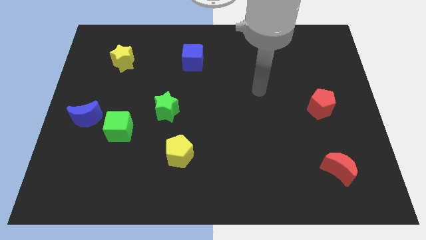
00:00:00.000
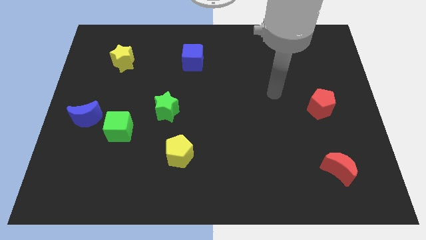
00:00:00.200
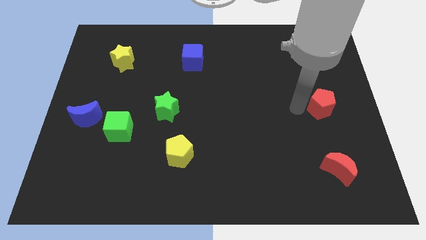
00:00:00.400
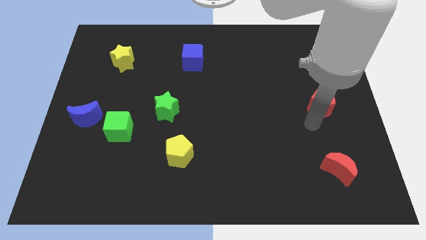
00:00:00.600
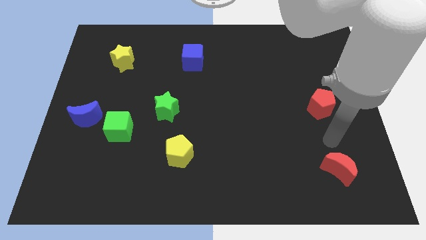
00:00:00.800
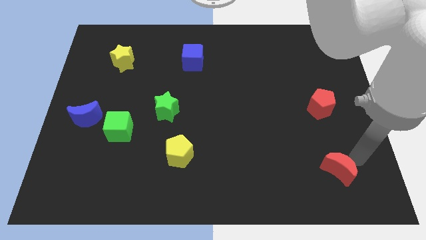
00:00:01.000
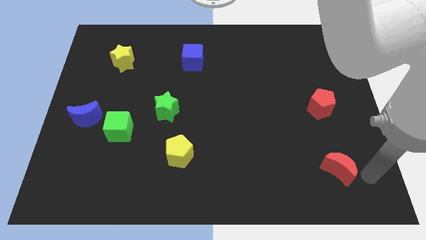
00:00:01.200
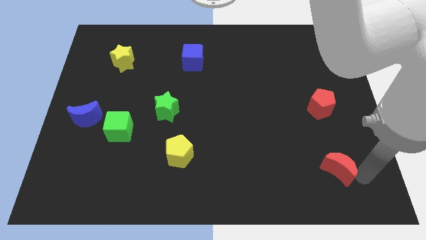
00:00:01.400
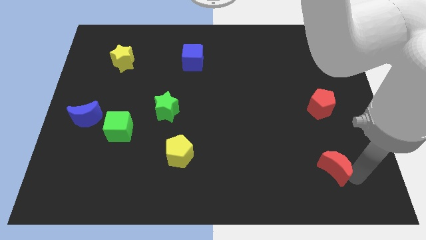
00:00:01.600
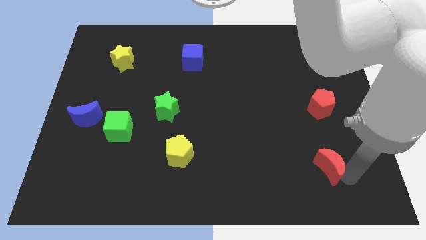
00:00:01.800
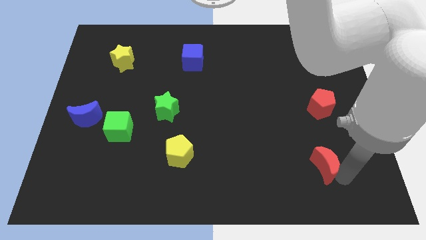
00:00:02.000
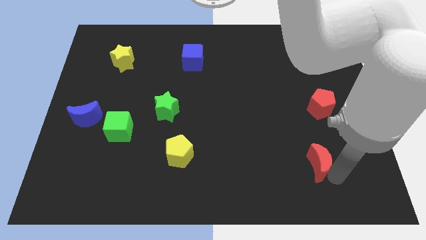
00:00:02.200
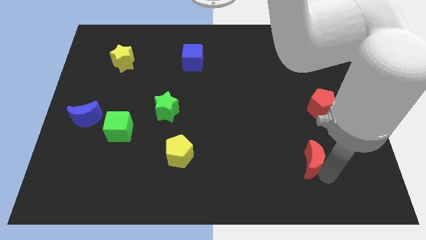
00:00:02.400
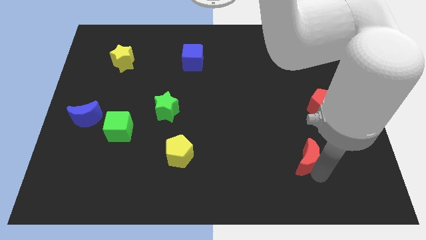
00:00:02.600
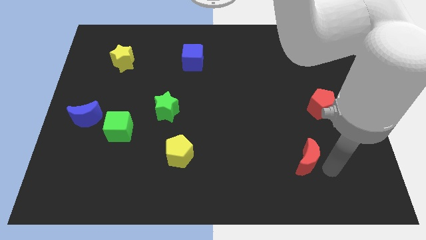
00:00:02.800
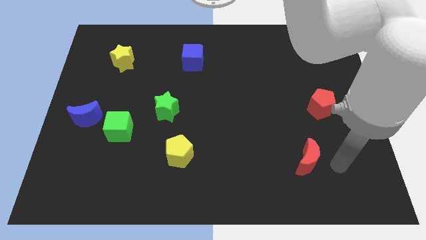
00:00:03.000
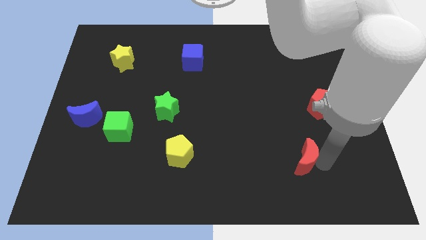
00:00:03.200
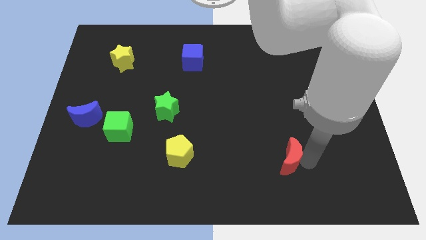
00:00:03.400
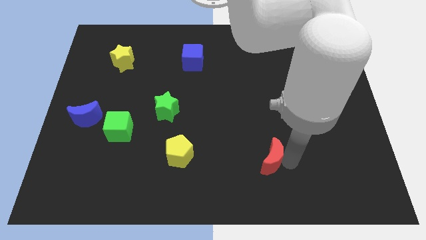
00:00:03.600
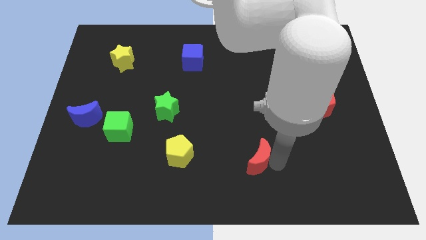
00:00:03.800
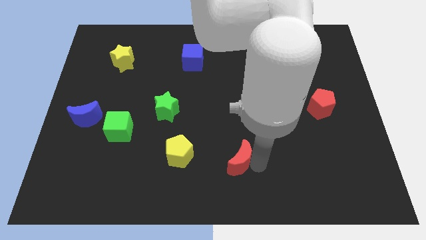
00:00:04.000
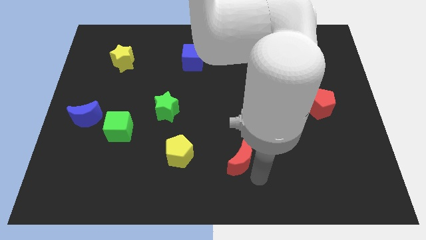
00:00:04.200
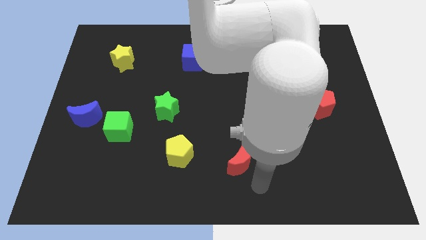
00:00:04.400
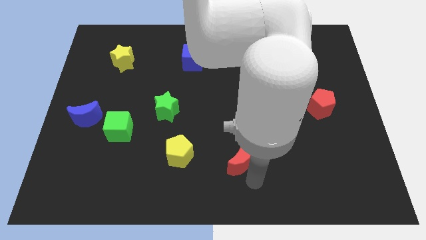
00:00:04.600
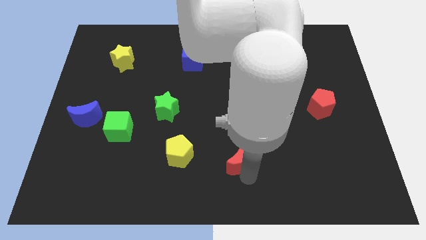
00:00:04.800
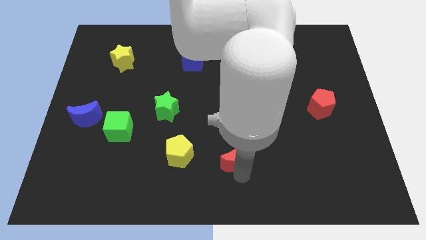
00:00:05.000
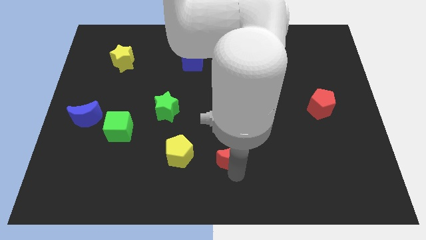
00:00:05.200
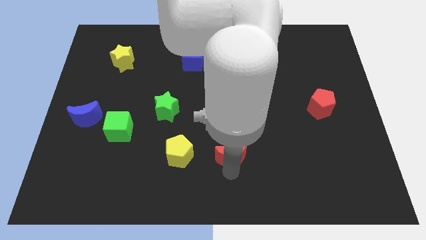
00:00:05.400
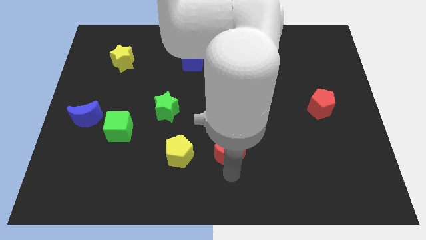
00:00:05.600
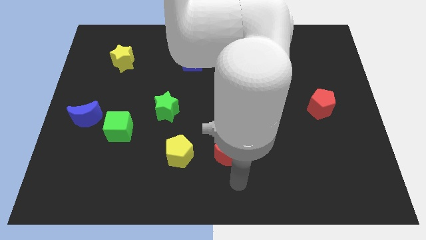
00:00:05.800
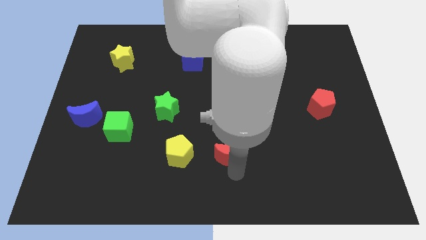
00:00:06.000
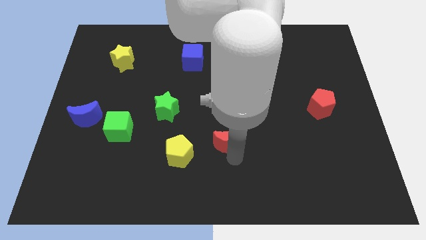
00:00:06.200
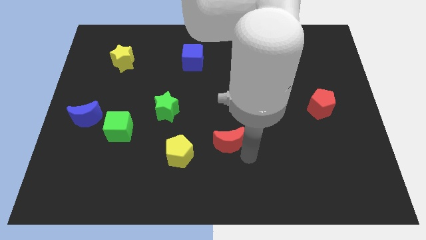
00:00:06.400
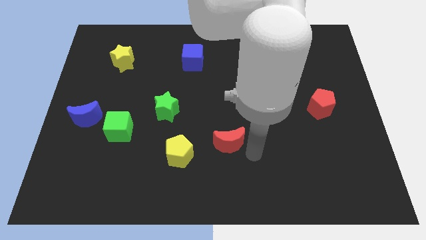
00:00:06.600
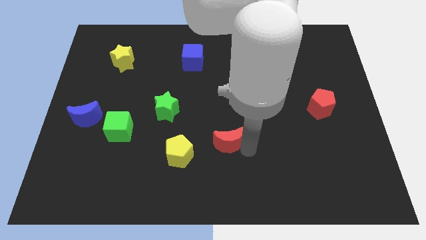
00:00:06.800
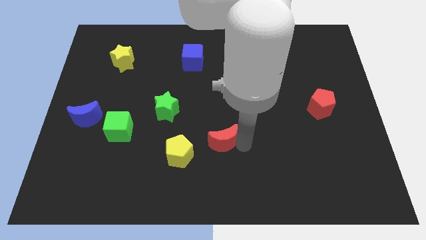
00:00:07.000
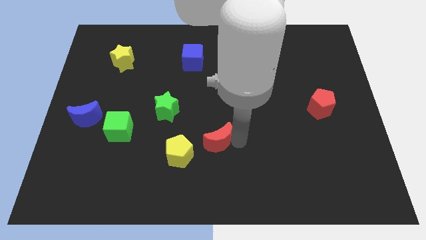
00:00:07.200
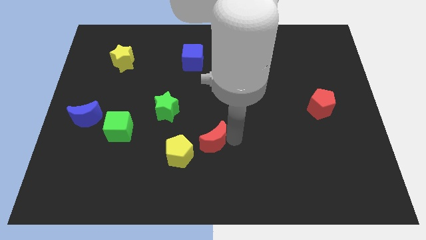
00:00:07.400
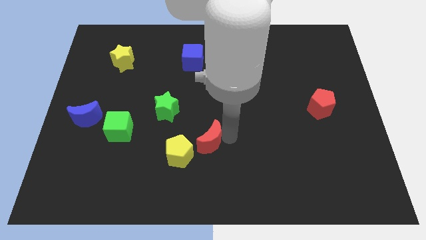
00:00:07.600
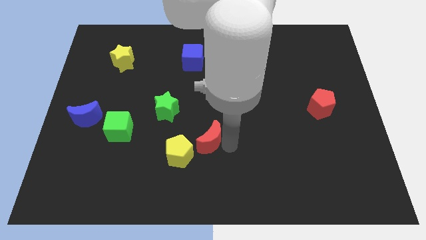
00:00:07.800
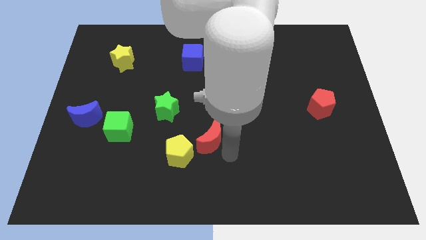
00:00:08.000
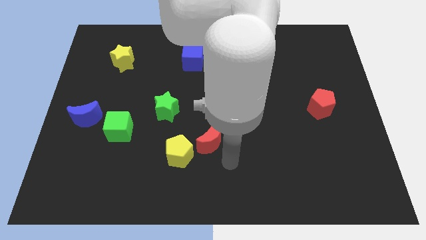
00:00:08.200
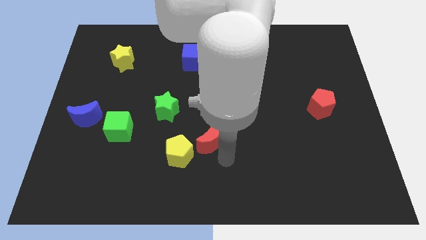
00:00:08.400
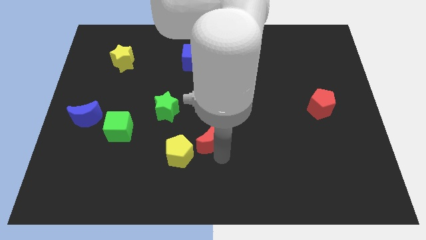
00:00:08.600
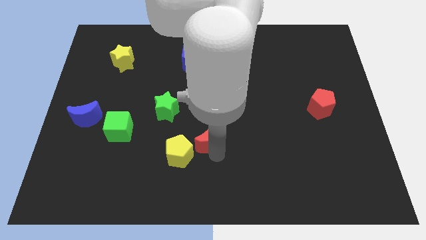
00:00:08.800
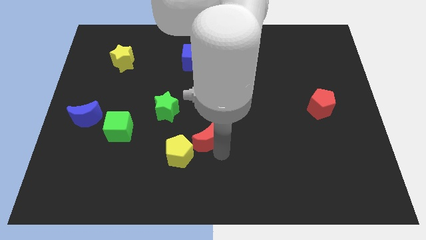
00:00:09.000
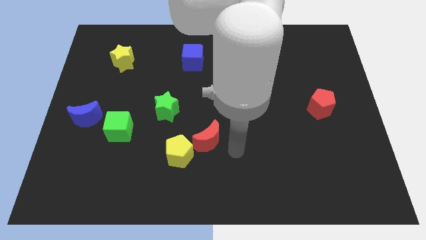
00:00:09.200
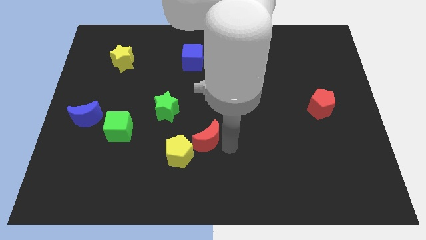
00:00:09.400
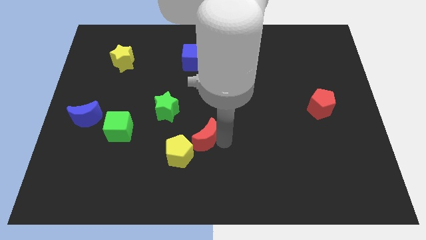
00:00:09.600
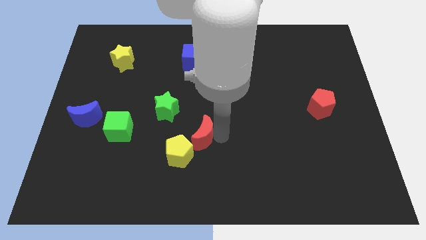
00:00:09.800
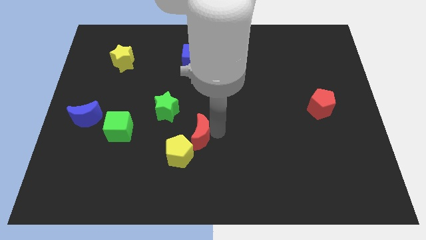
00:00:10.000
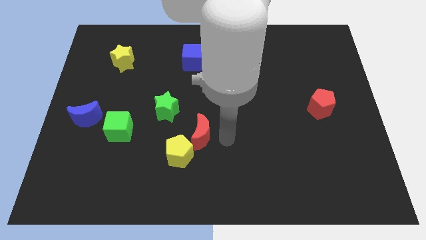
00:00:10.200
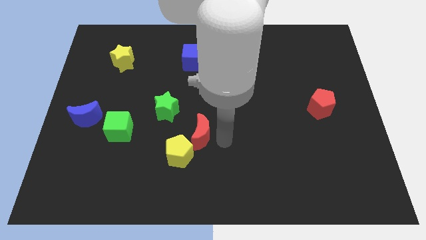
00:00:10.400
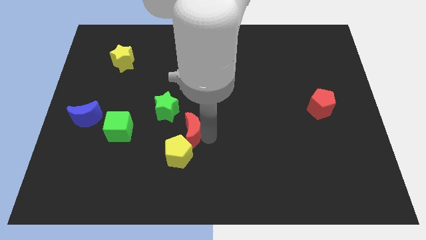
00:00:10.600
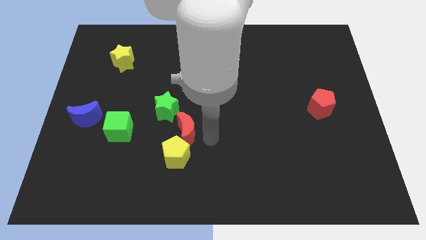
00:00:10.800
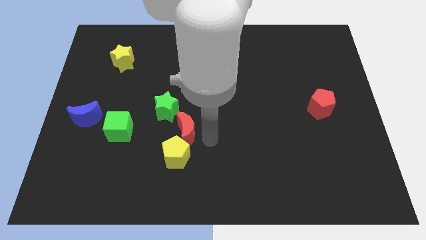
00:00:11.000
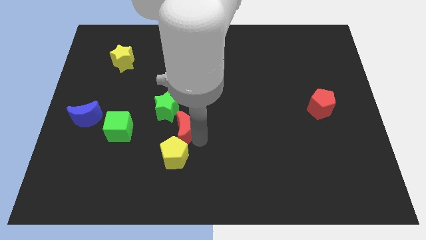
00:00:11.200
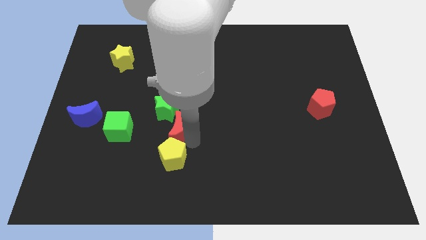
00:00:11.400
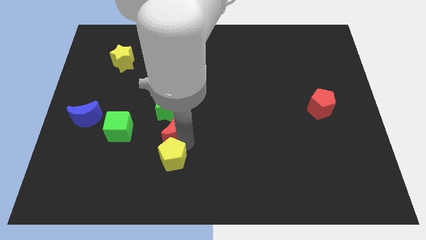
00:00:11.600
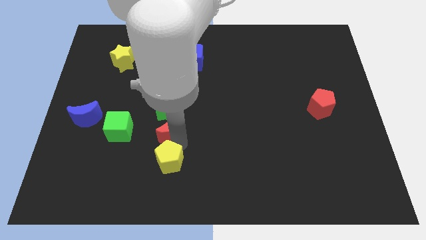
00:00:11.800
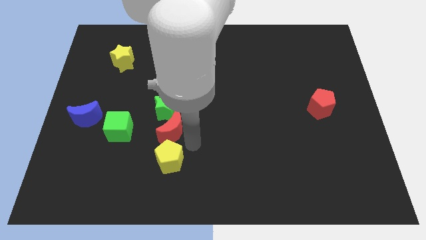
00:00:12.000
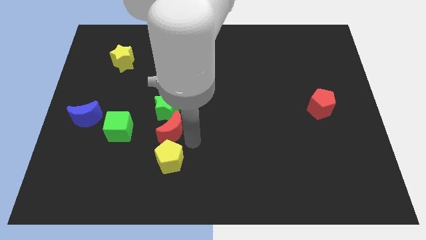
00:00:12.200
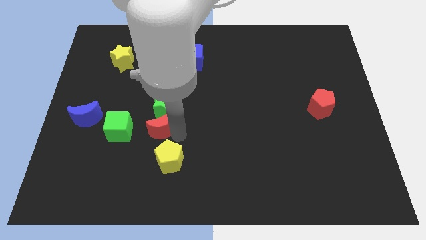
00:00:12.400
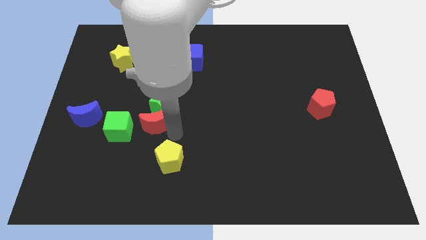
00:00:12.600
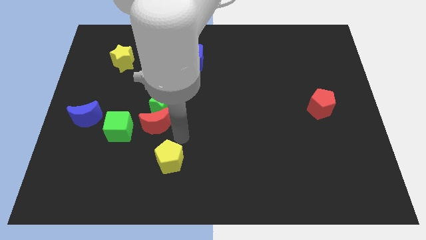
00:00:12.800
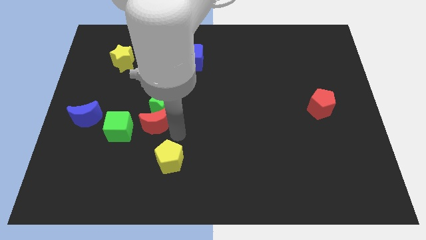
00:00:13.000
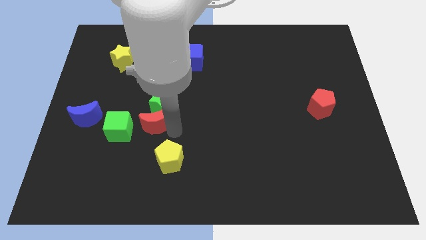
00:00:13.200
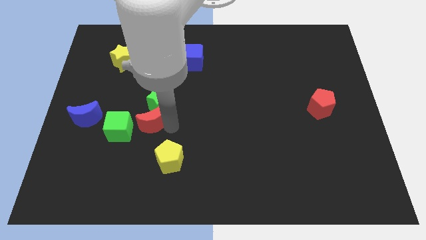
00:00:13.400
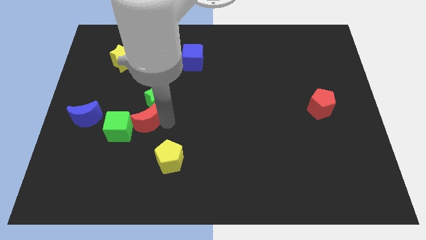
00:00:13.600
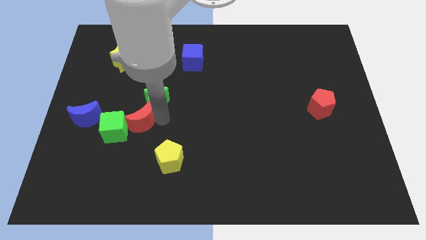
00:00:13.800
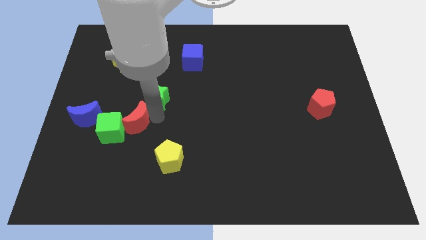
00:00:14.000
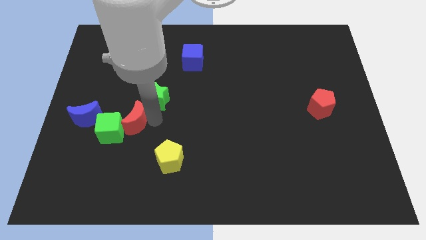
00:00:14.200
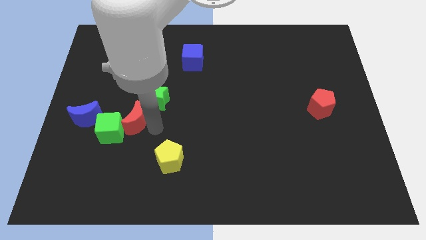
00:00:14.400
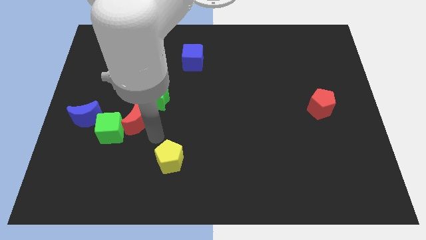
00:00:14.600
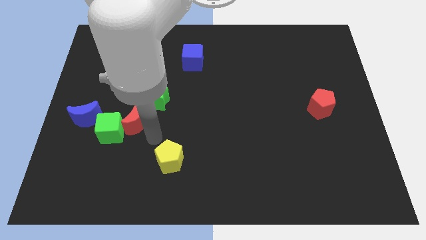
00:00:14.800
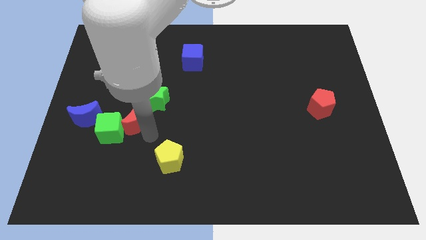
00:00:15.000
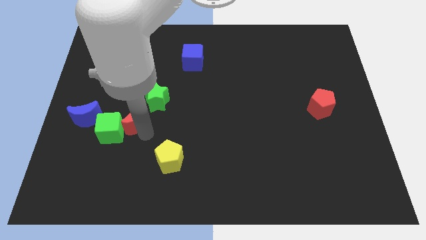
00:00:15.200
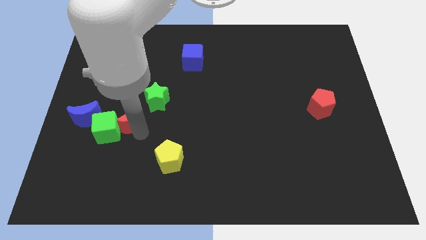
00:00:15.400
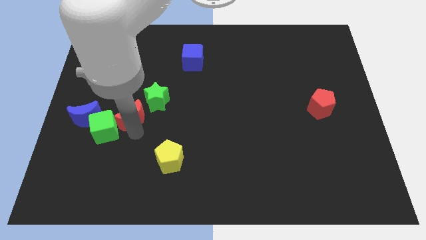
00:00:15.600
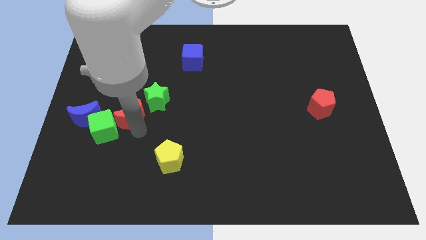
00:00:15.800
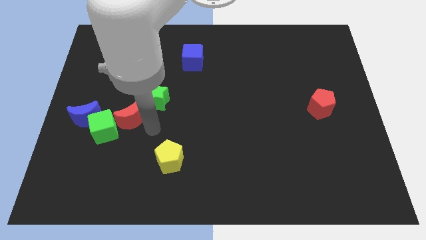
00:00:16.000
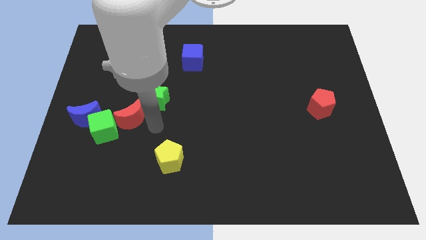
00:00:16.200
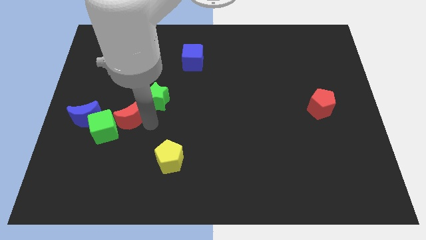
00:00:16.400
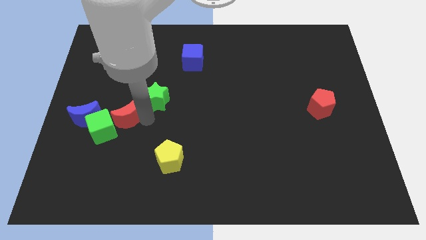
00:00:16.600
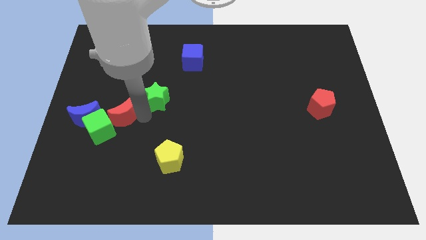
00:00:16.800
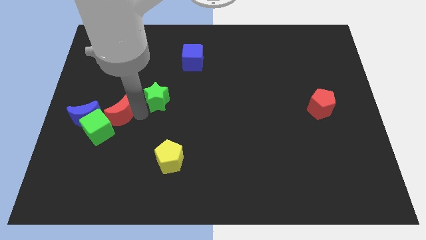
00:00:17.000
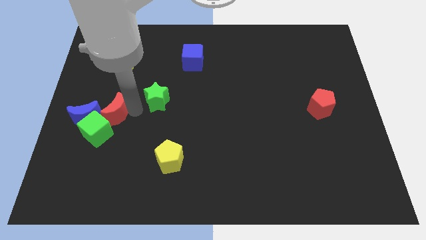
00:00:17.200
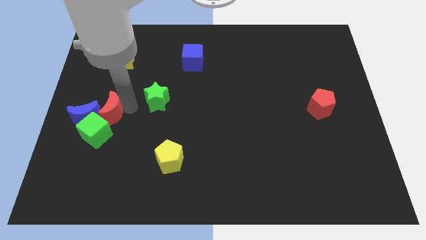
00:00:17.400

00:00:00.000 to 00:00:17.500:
move the red moon to the blue moon
